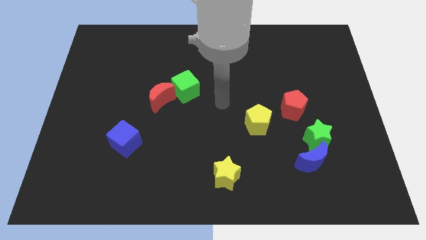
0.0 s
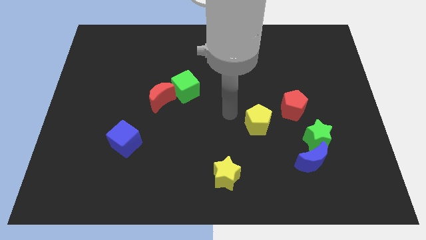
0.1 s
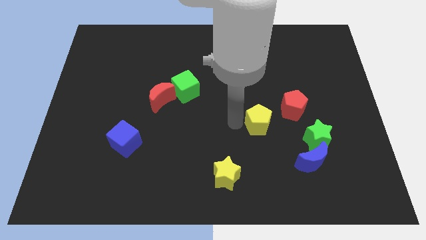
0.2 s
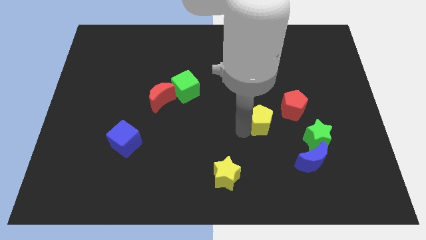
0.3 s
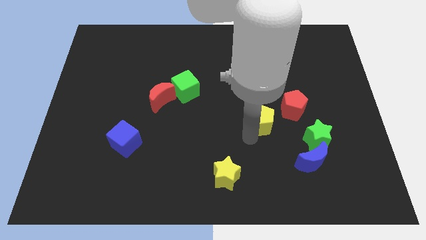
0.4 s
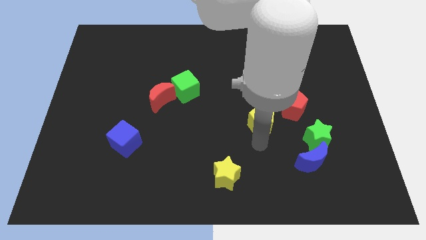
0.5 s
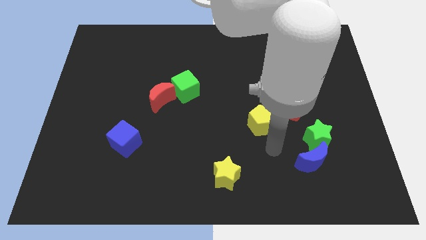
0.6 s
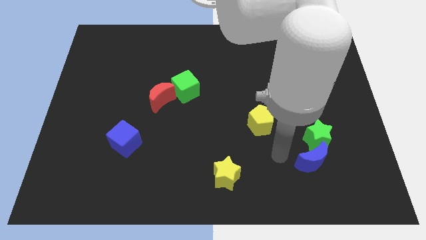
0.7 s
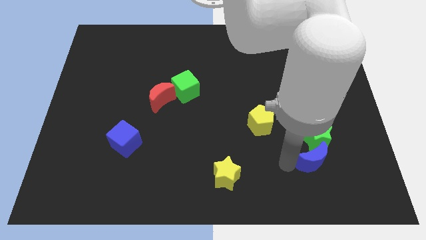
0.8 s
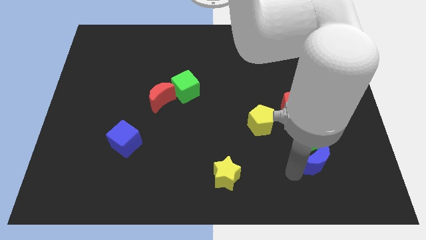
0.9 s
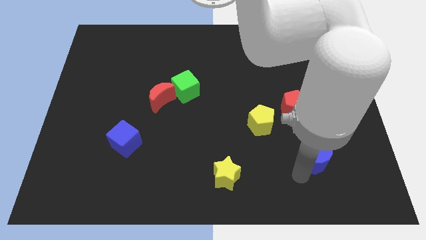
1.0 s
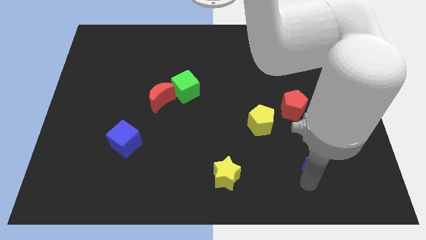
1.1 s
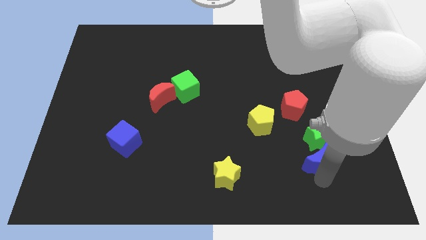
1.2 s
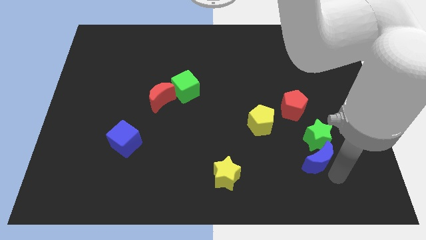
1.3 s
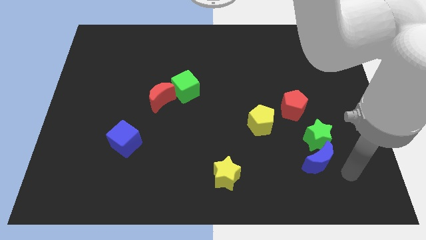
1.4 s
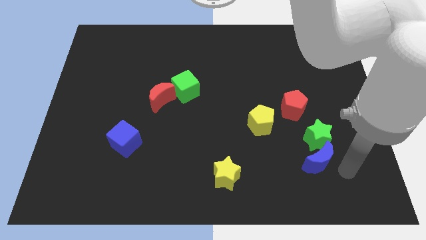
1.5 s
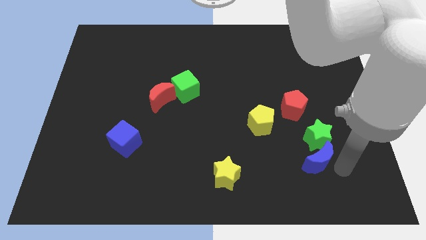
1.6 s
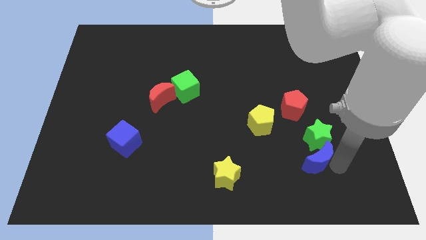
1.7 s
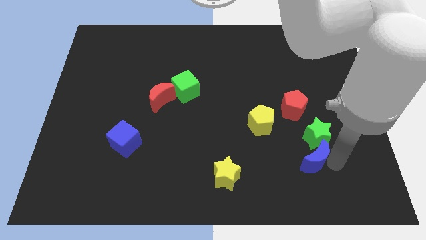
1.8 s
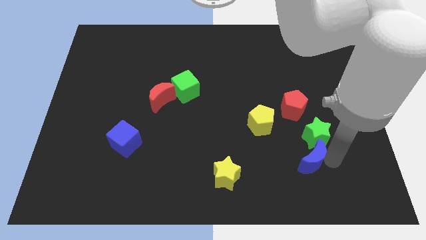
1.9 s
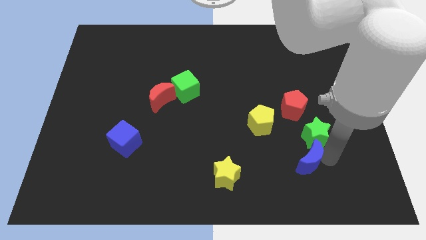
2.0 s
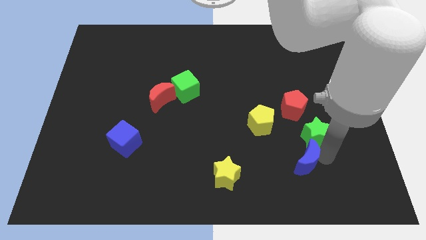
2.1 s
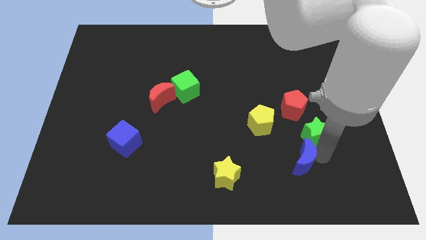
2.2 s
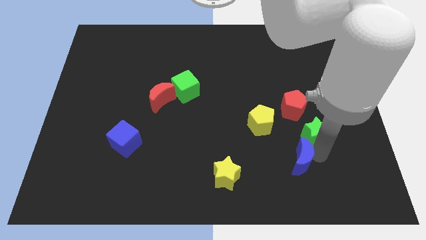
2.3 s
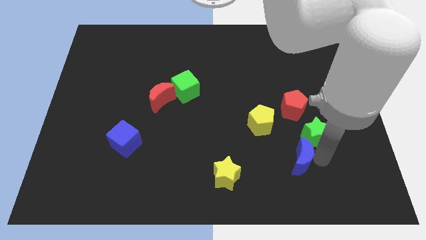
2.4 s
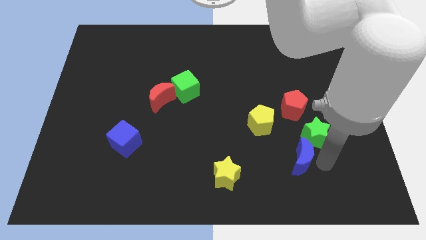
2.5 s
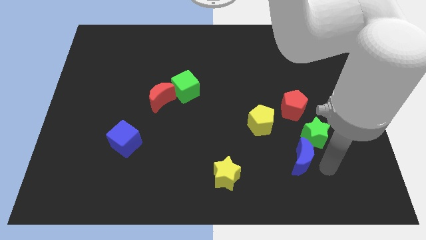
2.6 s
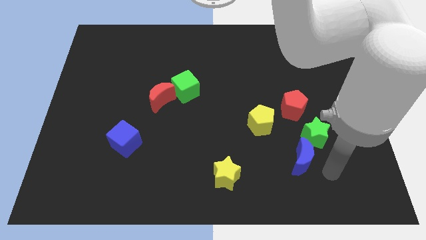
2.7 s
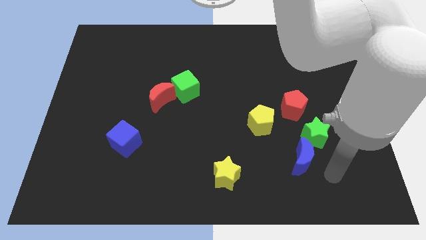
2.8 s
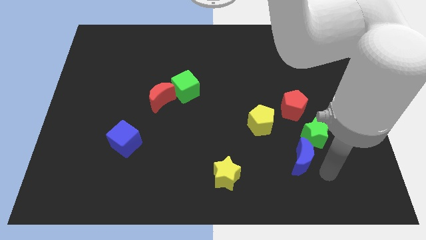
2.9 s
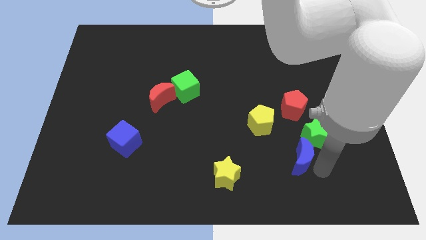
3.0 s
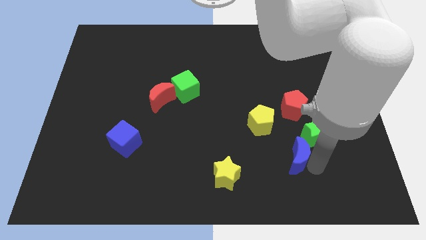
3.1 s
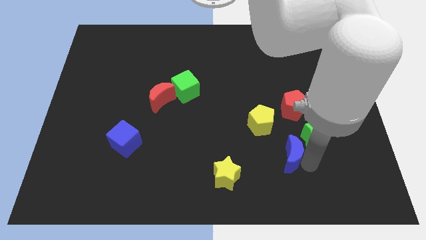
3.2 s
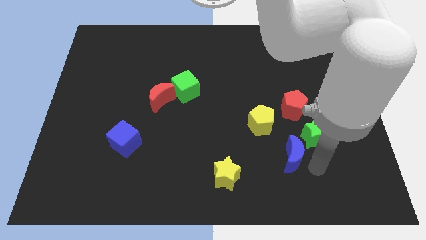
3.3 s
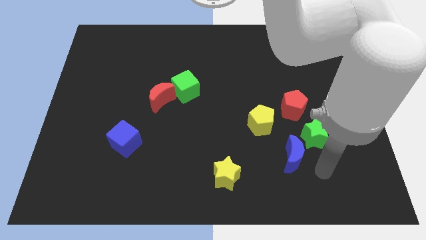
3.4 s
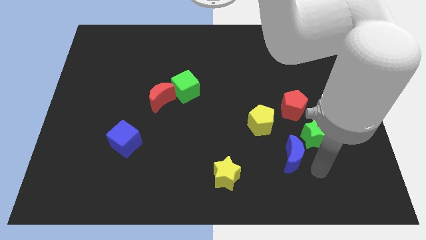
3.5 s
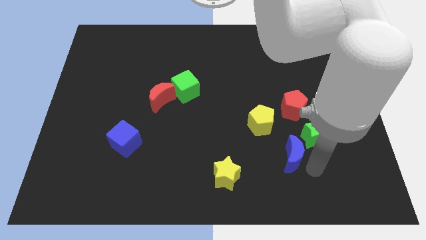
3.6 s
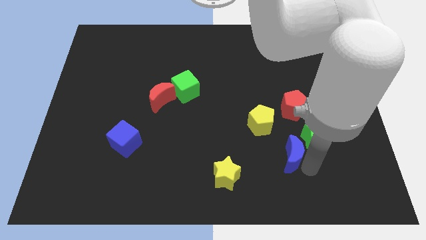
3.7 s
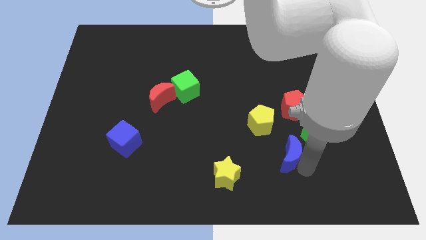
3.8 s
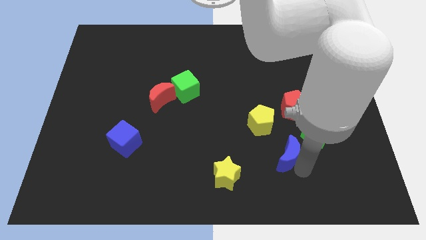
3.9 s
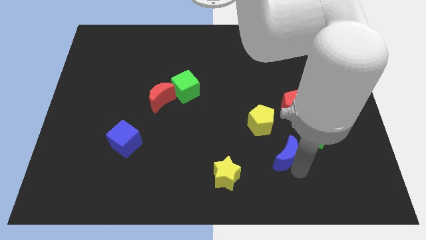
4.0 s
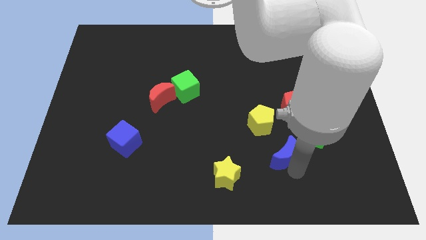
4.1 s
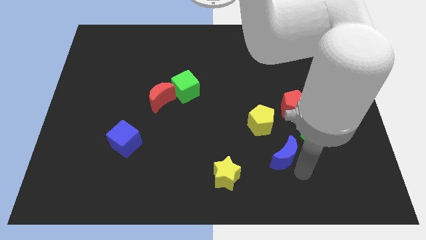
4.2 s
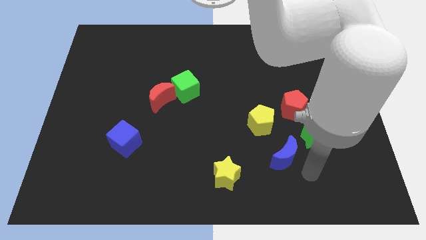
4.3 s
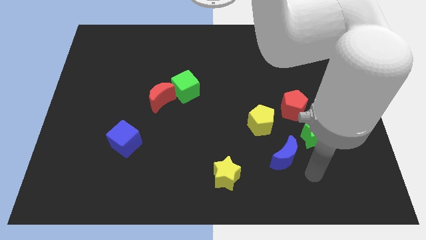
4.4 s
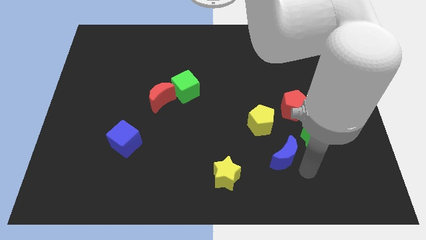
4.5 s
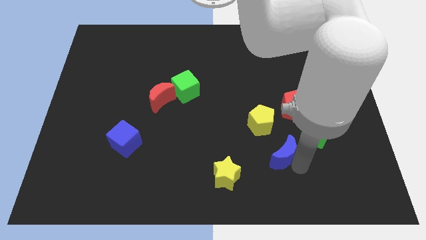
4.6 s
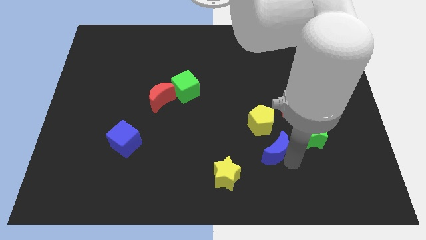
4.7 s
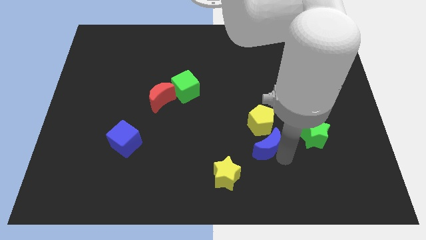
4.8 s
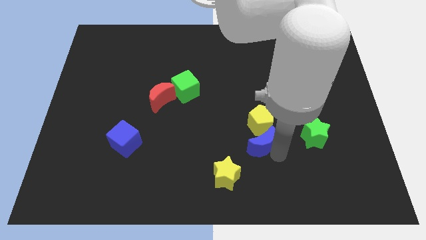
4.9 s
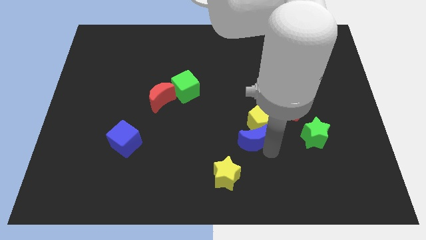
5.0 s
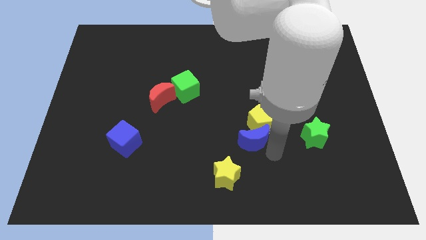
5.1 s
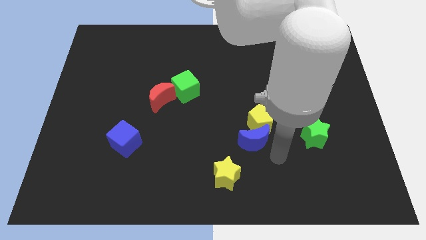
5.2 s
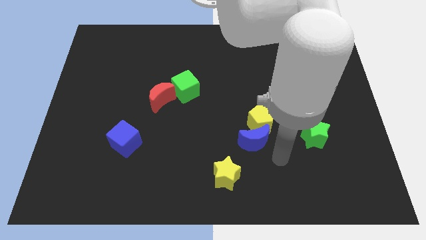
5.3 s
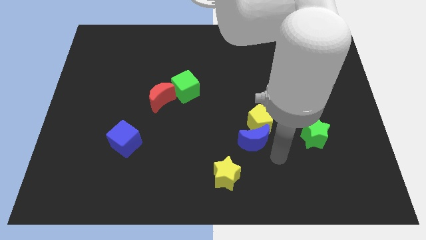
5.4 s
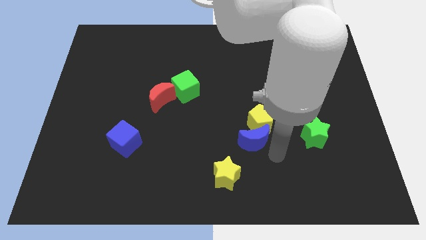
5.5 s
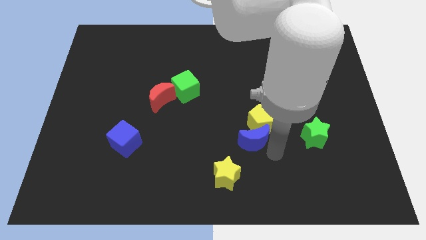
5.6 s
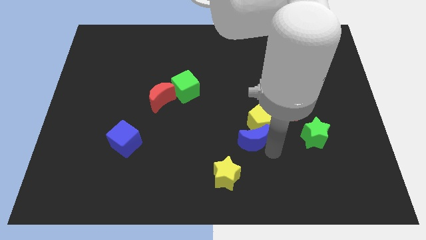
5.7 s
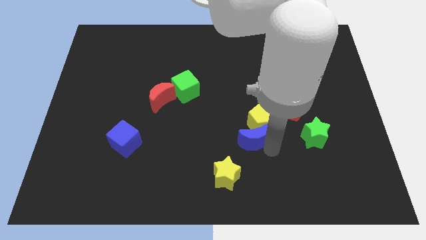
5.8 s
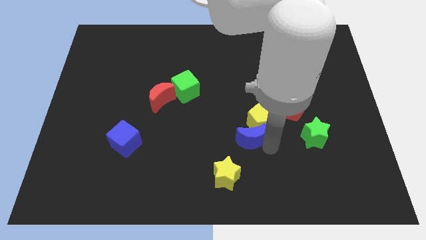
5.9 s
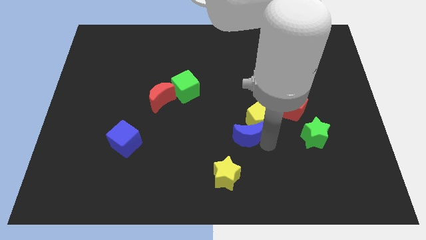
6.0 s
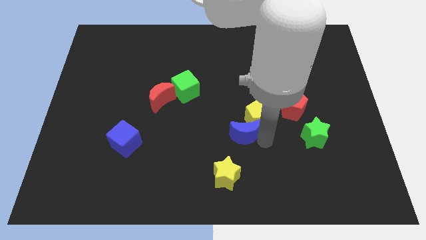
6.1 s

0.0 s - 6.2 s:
slide the blue moon just left of the yellow pentagon

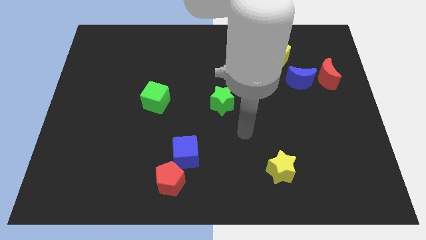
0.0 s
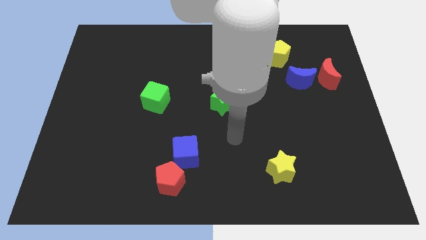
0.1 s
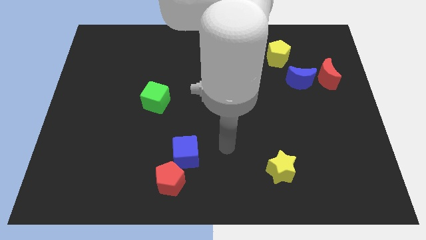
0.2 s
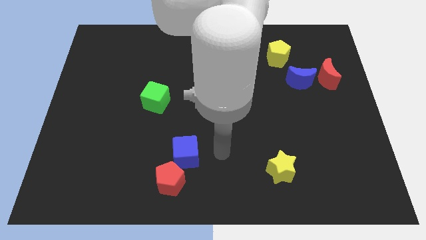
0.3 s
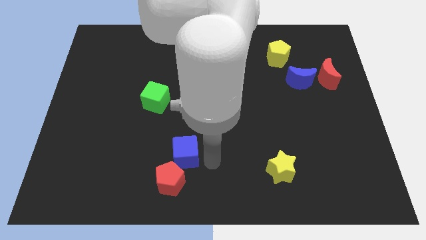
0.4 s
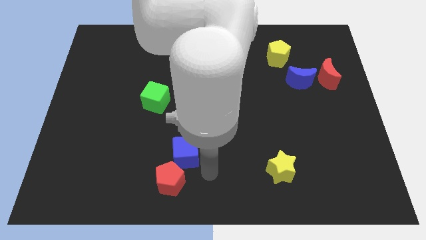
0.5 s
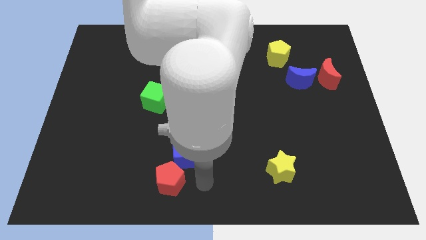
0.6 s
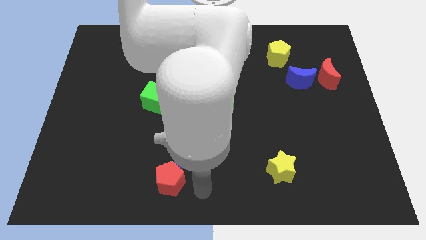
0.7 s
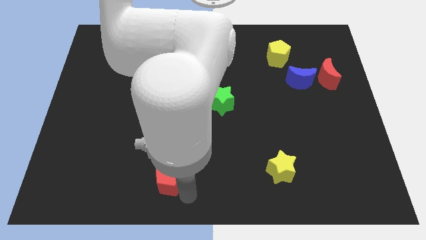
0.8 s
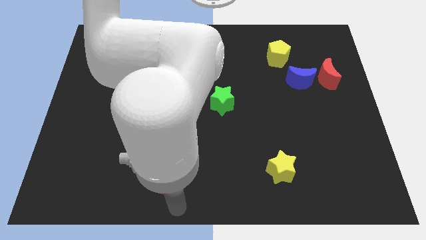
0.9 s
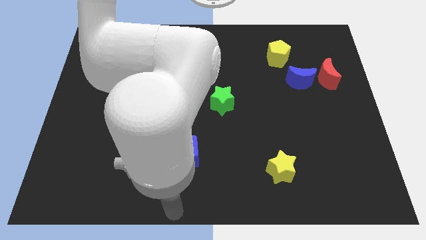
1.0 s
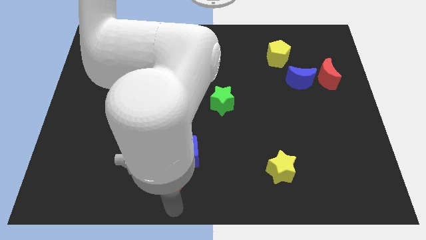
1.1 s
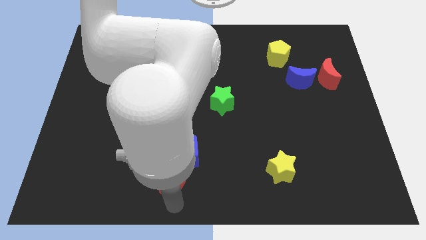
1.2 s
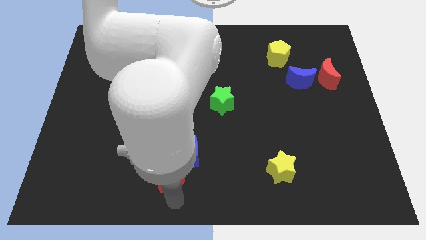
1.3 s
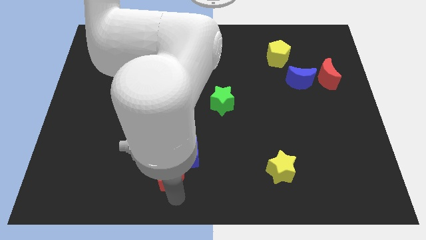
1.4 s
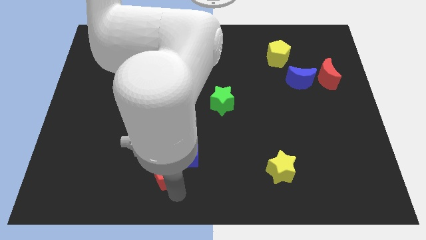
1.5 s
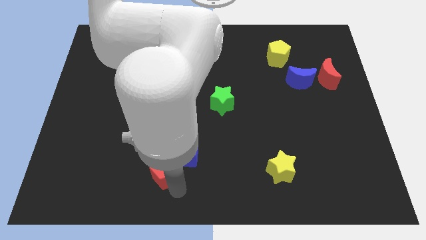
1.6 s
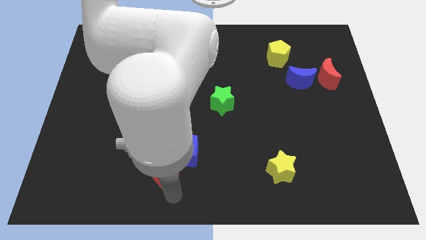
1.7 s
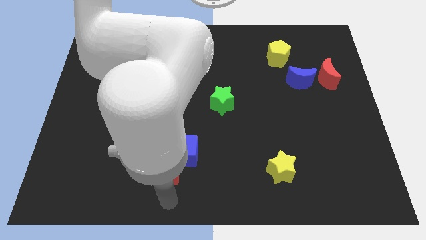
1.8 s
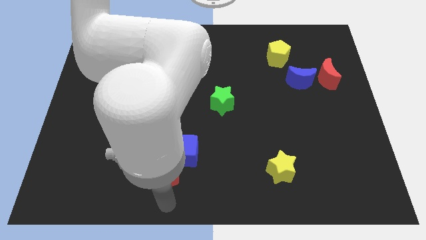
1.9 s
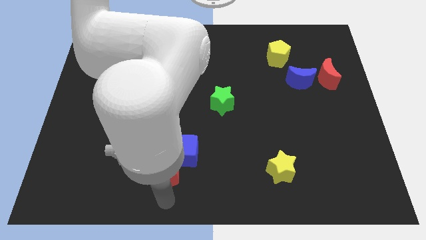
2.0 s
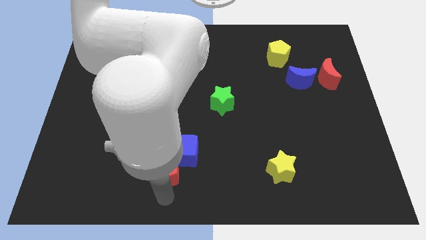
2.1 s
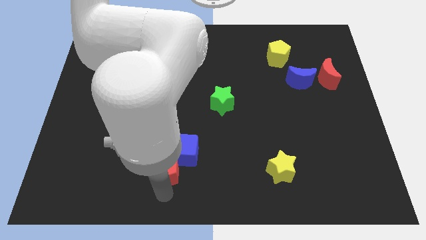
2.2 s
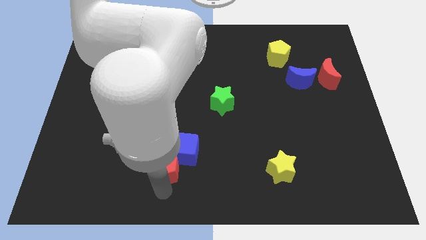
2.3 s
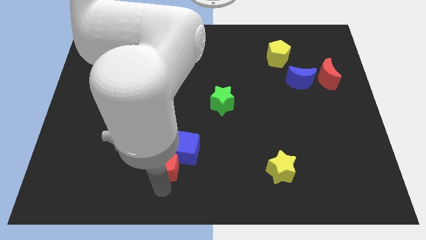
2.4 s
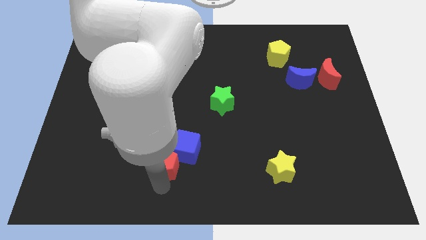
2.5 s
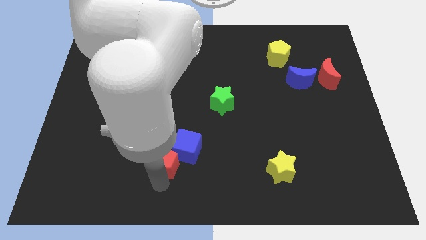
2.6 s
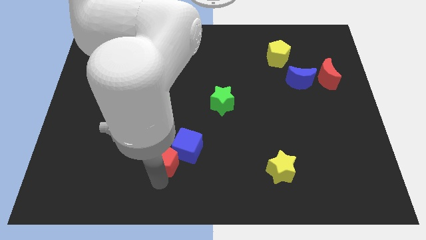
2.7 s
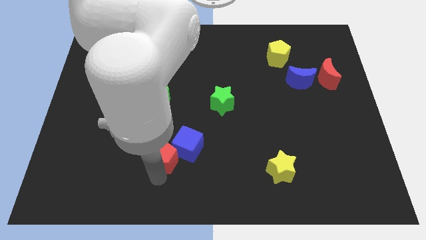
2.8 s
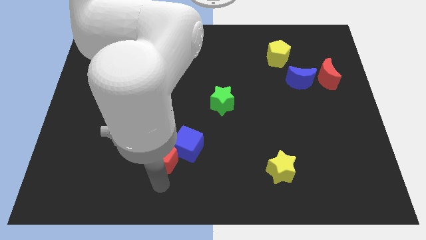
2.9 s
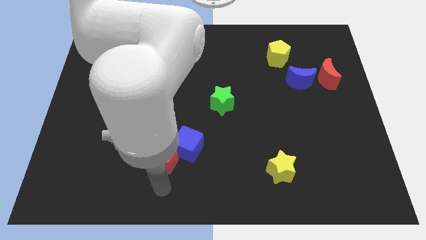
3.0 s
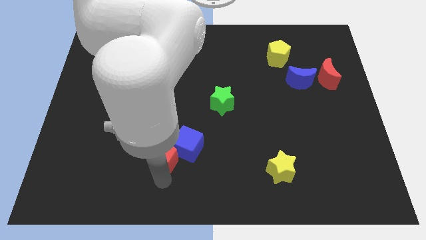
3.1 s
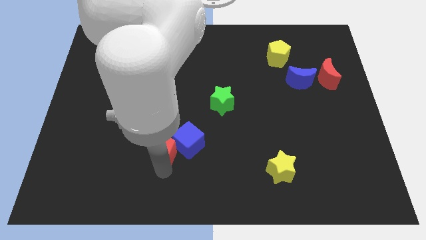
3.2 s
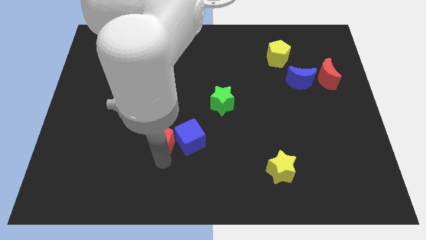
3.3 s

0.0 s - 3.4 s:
move the red pentagon to the top left side of the blue cube
